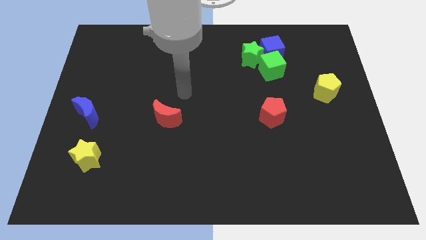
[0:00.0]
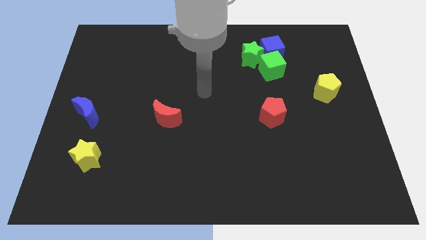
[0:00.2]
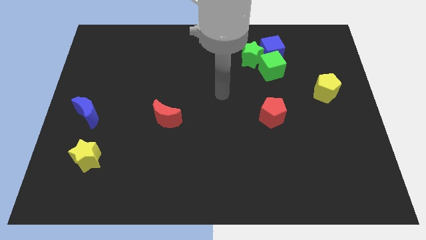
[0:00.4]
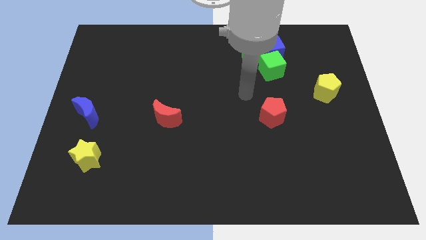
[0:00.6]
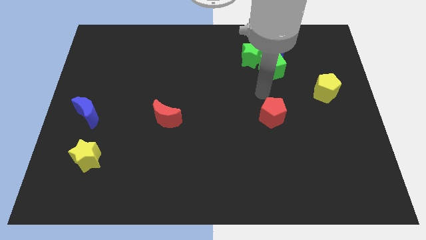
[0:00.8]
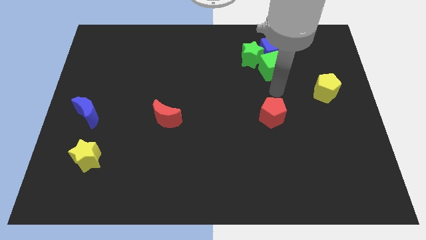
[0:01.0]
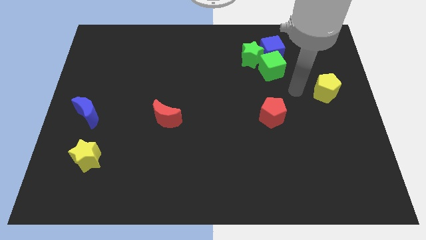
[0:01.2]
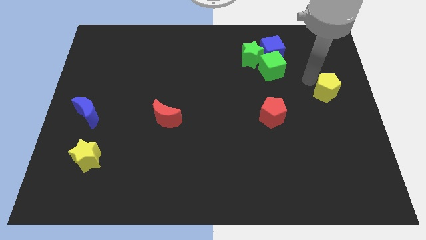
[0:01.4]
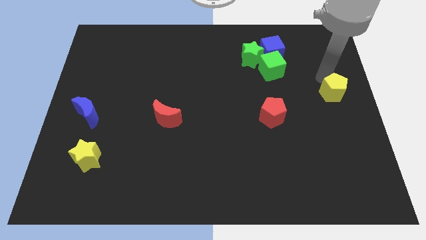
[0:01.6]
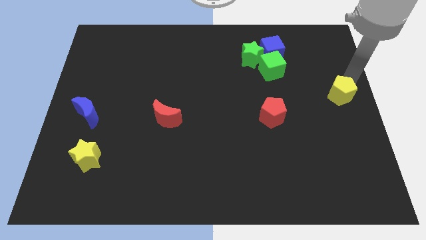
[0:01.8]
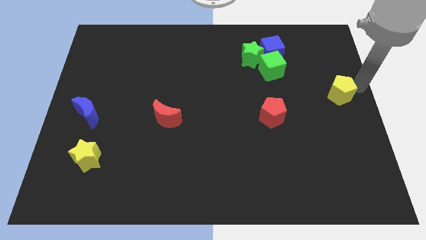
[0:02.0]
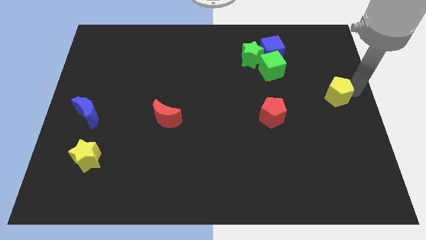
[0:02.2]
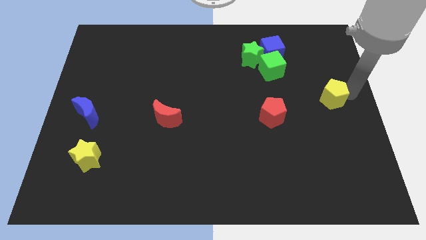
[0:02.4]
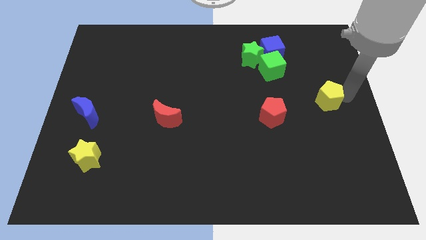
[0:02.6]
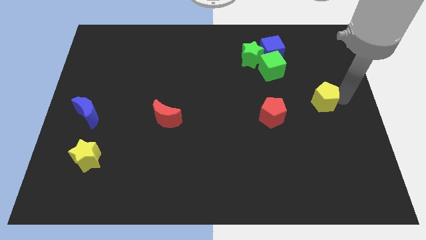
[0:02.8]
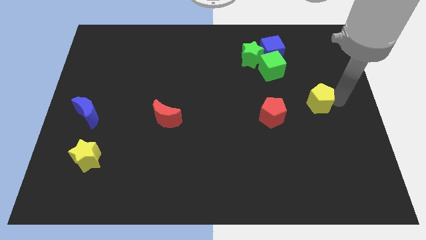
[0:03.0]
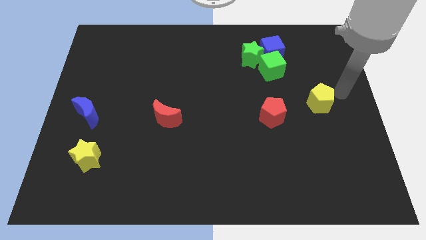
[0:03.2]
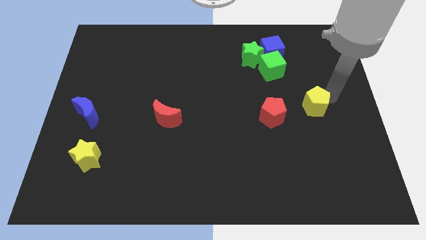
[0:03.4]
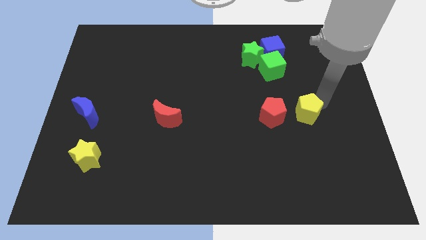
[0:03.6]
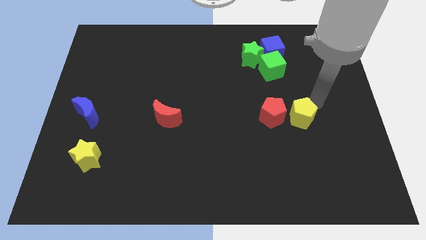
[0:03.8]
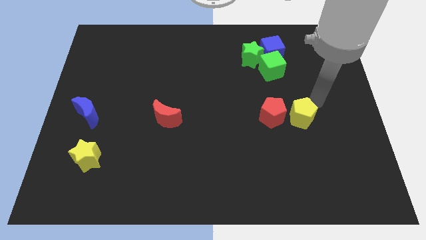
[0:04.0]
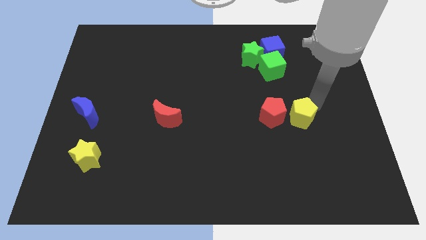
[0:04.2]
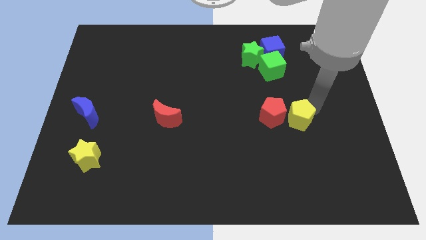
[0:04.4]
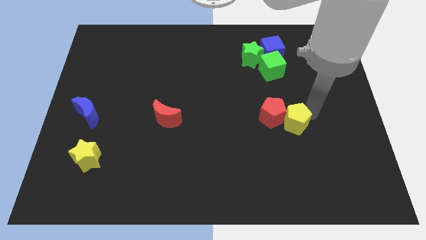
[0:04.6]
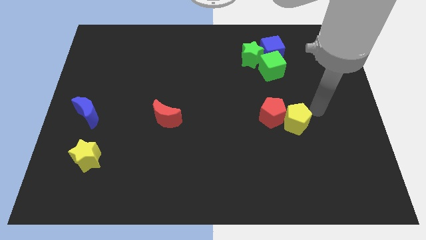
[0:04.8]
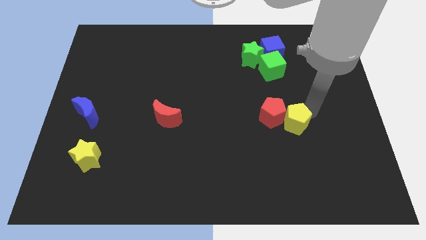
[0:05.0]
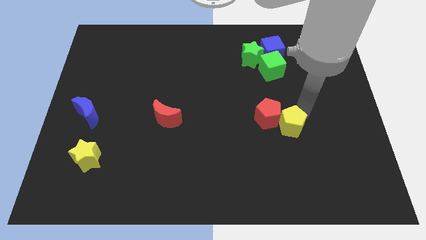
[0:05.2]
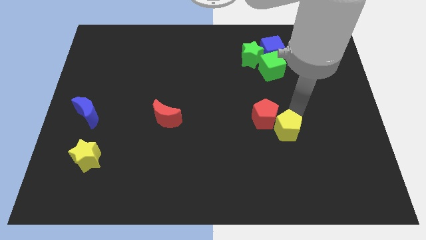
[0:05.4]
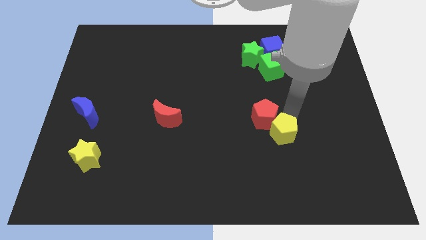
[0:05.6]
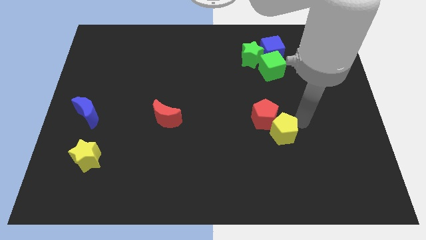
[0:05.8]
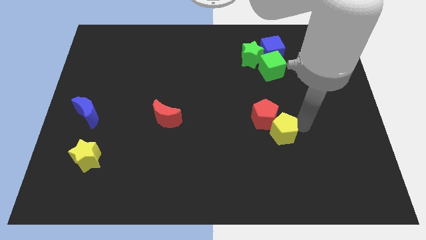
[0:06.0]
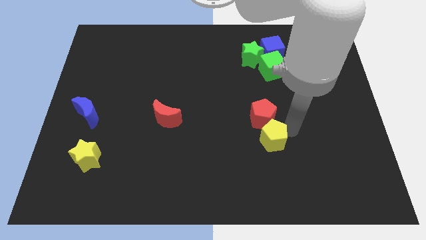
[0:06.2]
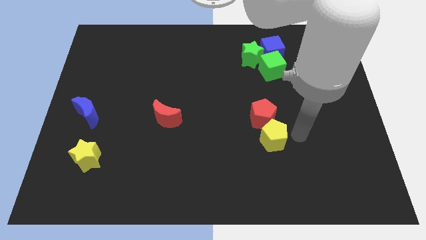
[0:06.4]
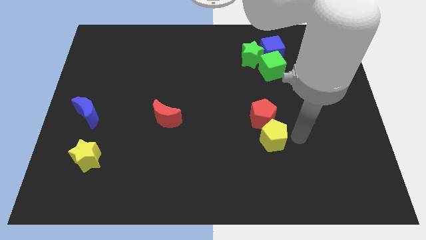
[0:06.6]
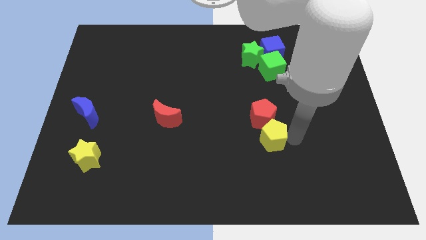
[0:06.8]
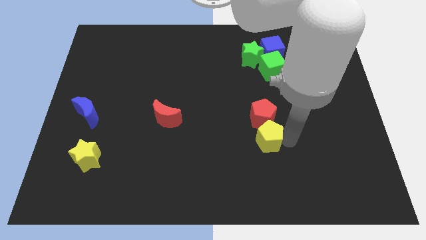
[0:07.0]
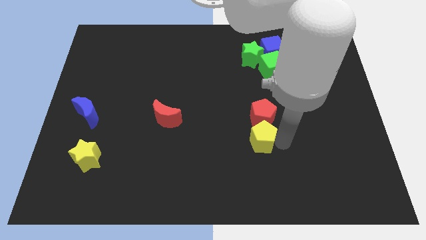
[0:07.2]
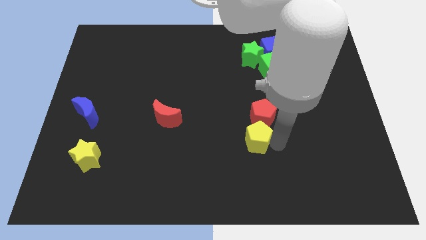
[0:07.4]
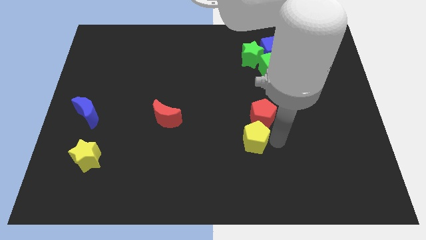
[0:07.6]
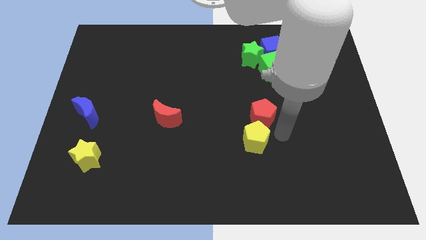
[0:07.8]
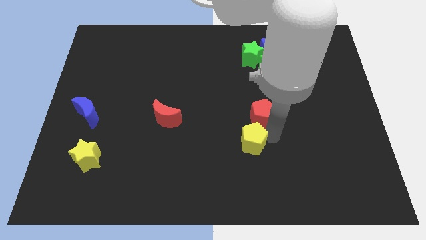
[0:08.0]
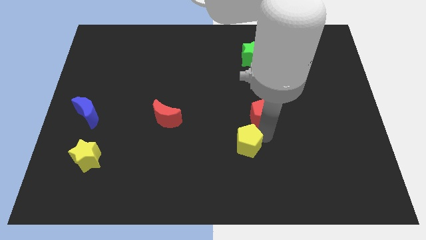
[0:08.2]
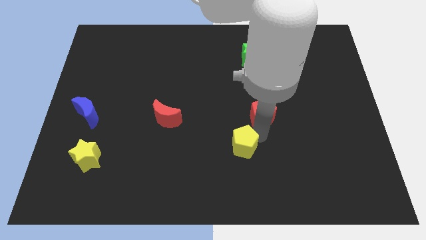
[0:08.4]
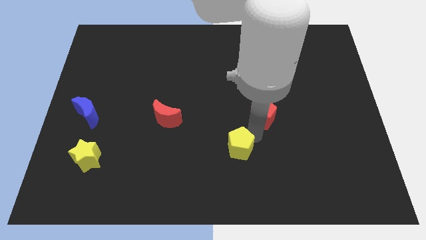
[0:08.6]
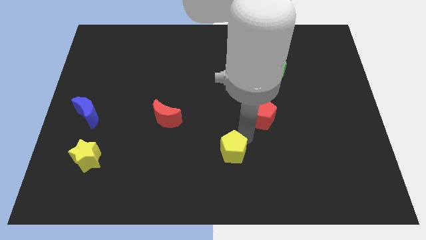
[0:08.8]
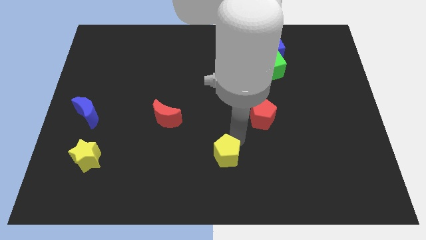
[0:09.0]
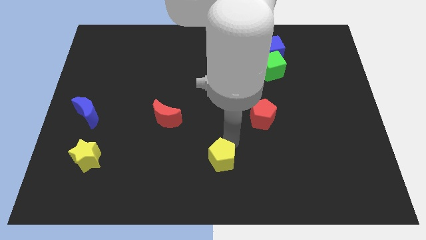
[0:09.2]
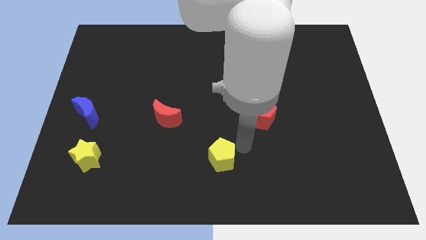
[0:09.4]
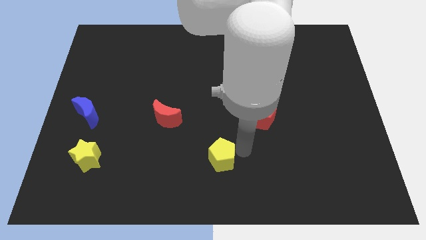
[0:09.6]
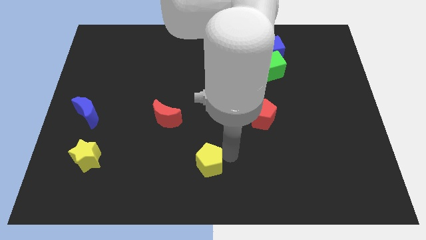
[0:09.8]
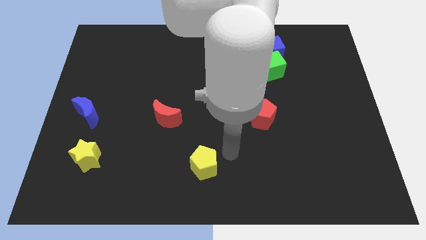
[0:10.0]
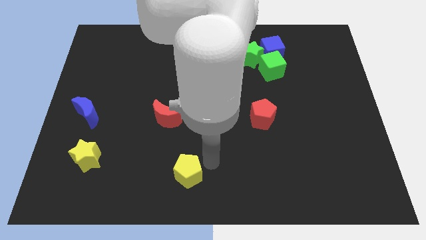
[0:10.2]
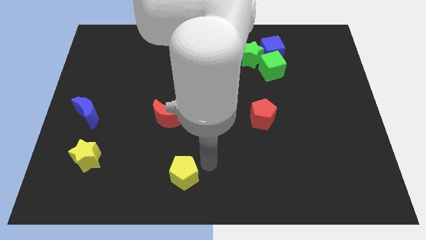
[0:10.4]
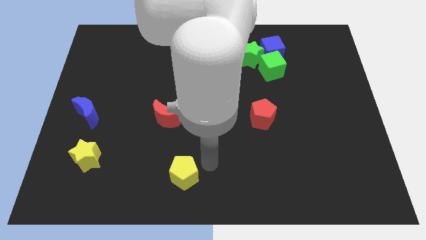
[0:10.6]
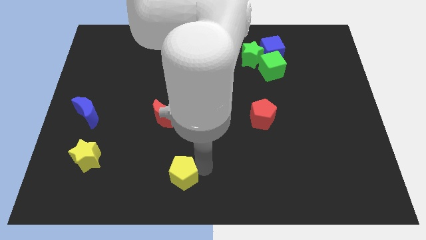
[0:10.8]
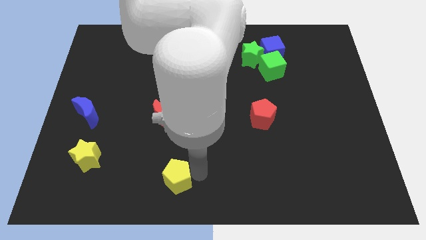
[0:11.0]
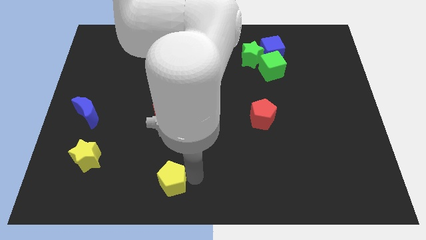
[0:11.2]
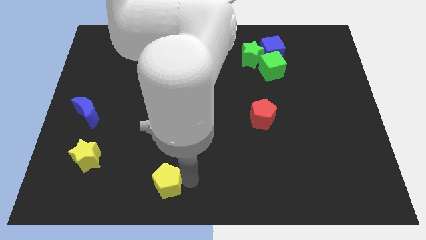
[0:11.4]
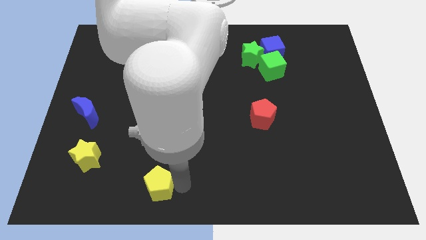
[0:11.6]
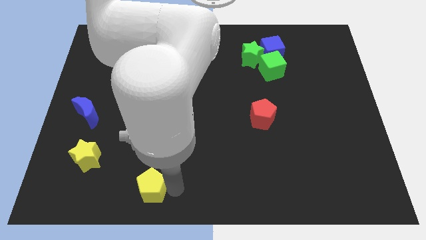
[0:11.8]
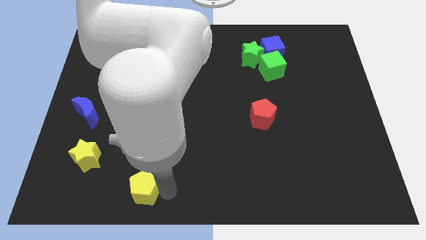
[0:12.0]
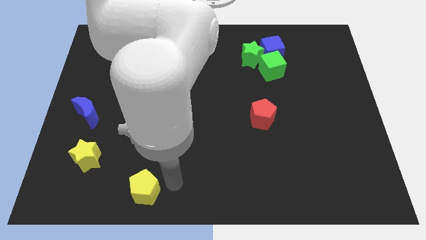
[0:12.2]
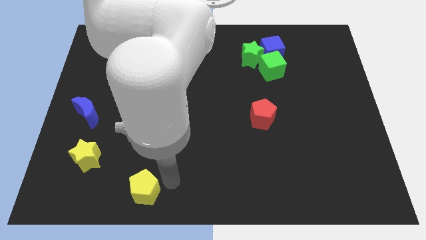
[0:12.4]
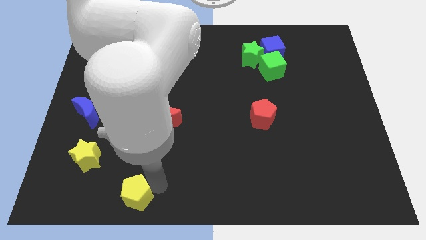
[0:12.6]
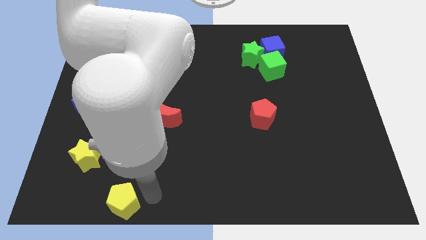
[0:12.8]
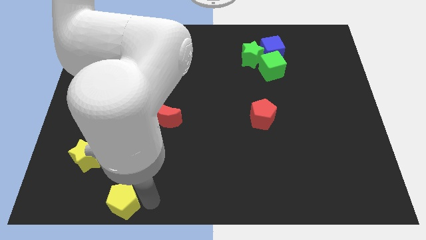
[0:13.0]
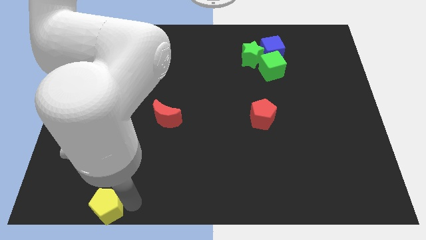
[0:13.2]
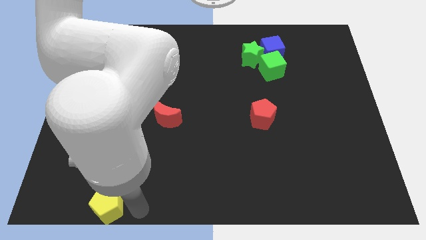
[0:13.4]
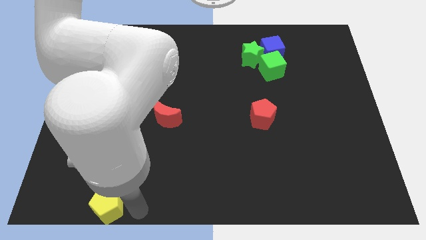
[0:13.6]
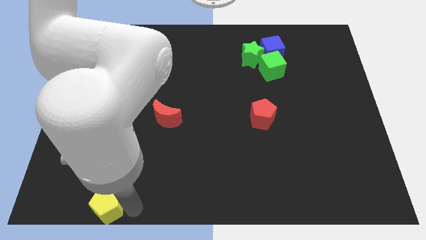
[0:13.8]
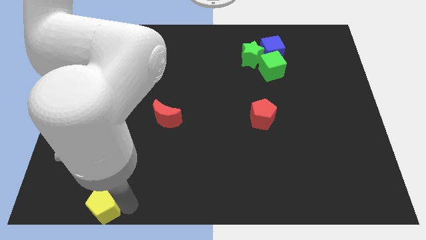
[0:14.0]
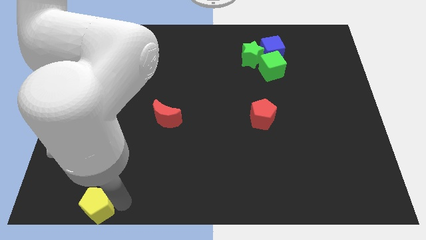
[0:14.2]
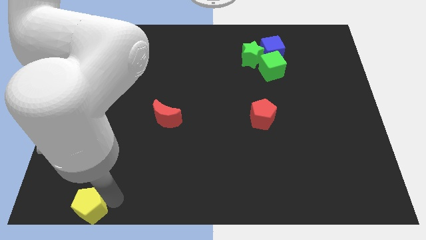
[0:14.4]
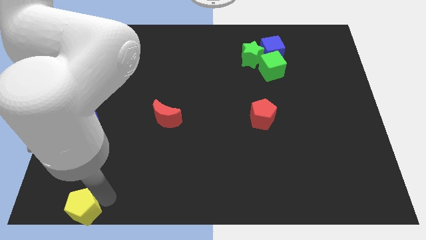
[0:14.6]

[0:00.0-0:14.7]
push the yellow pentagon to the lower left corner
